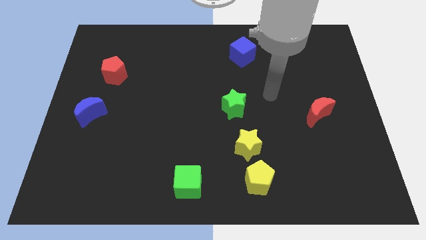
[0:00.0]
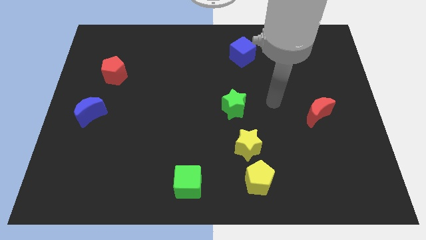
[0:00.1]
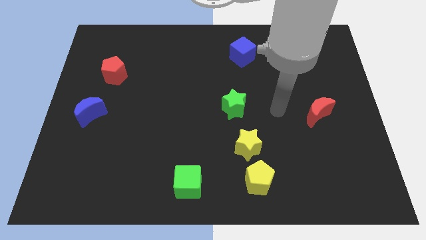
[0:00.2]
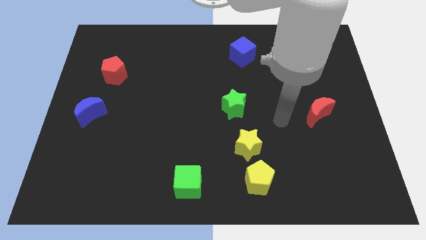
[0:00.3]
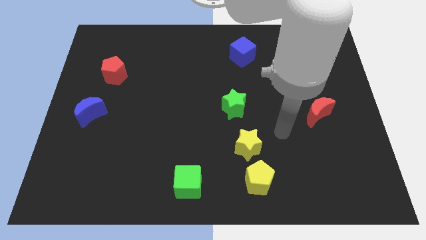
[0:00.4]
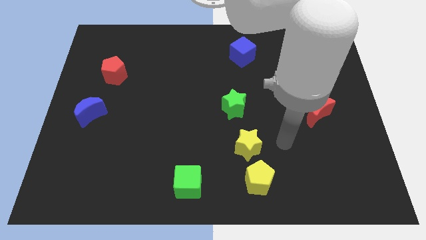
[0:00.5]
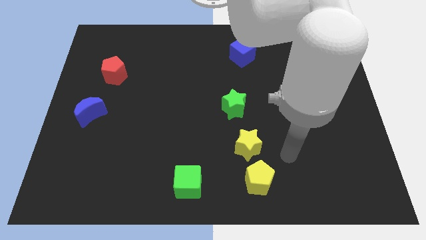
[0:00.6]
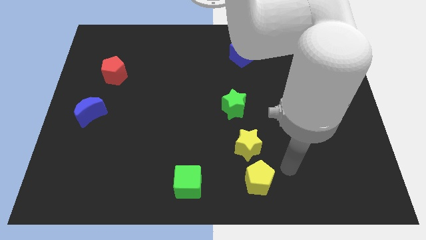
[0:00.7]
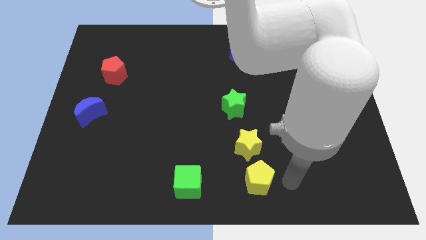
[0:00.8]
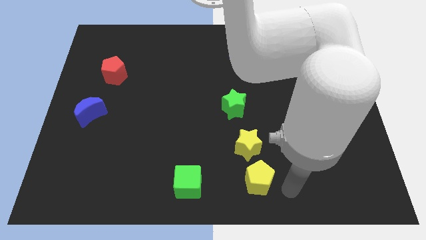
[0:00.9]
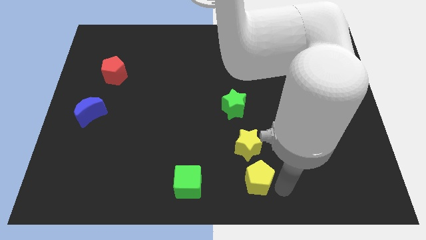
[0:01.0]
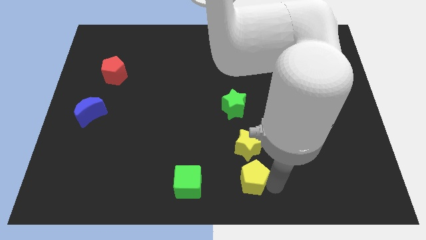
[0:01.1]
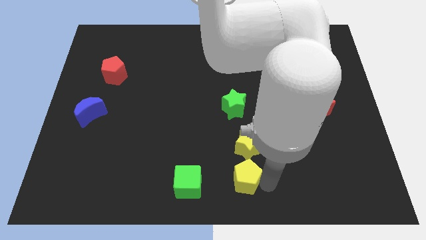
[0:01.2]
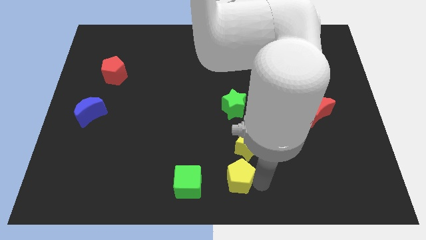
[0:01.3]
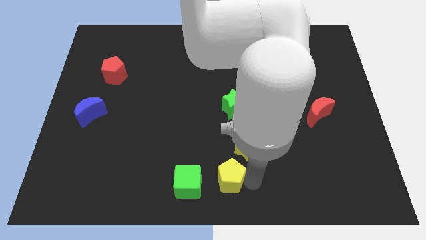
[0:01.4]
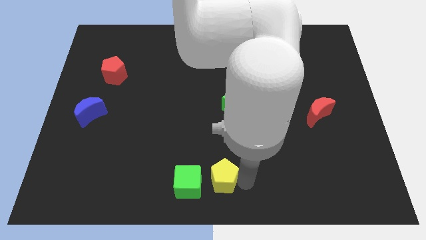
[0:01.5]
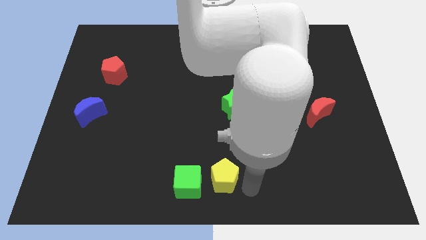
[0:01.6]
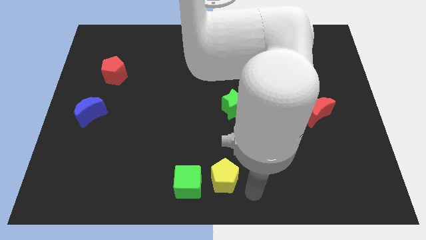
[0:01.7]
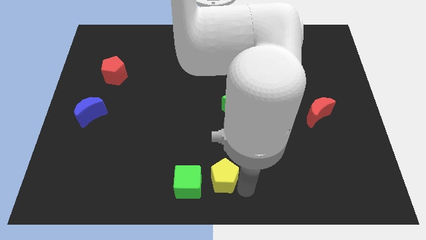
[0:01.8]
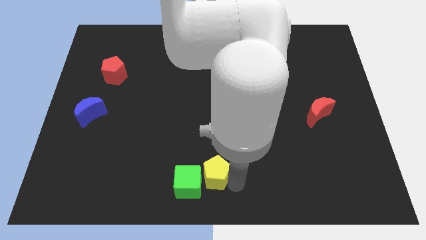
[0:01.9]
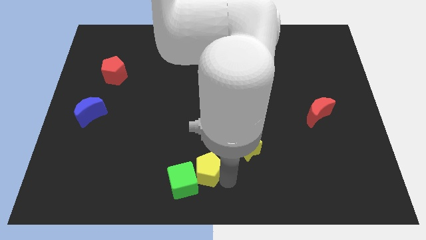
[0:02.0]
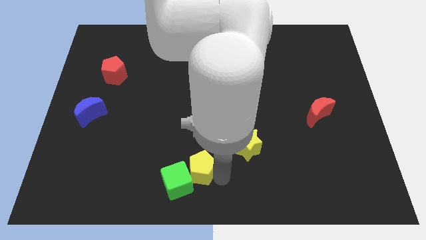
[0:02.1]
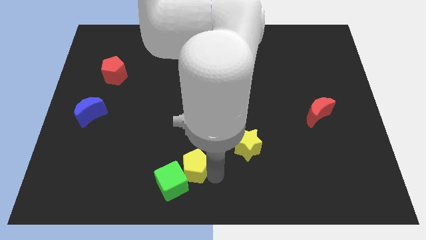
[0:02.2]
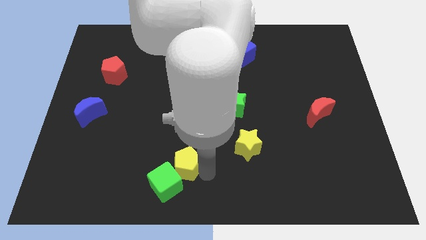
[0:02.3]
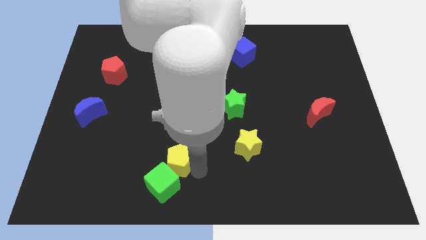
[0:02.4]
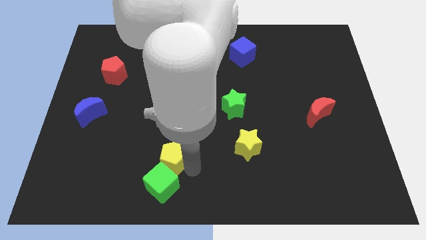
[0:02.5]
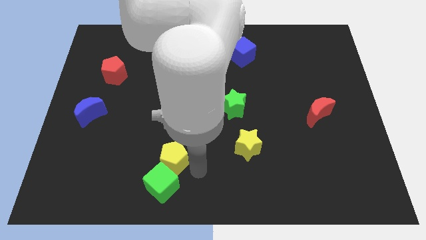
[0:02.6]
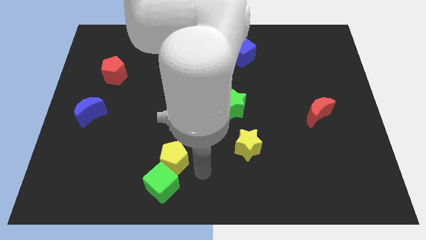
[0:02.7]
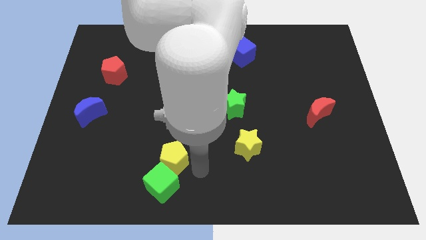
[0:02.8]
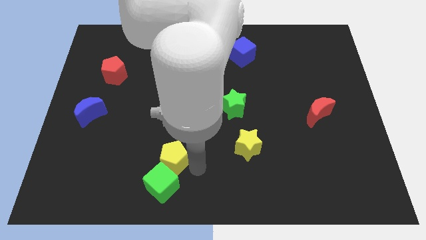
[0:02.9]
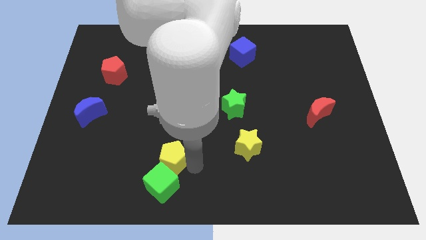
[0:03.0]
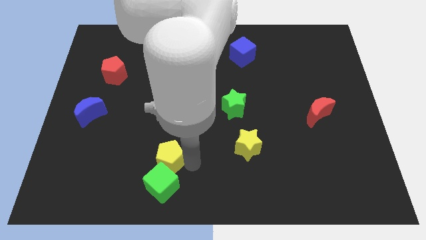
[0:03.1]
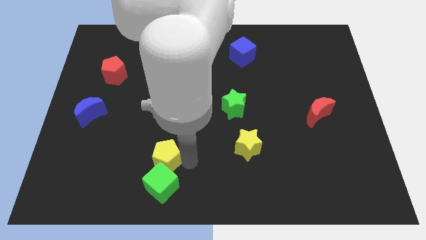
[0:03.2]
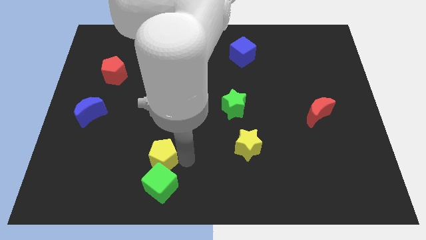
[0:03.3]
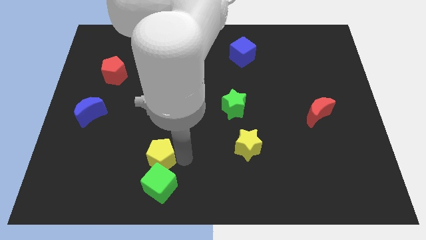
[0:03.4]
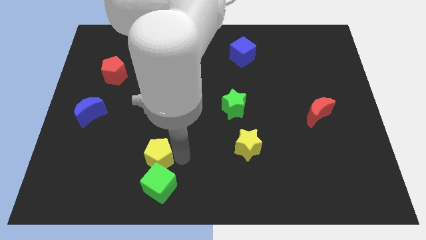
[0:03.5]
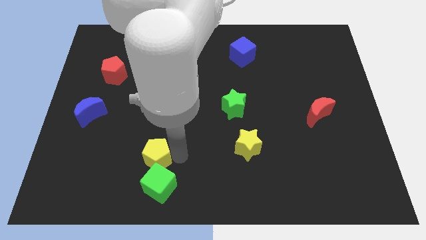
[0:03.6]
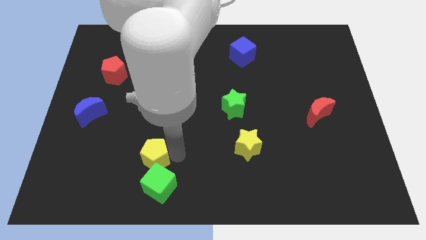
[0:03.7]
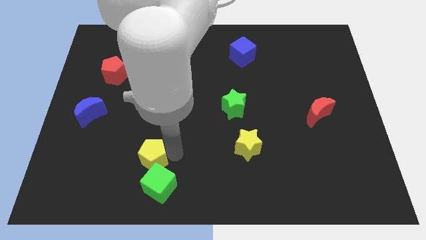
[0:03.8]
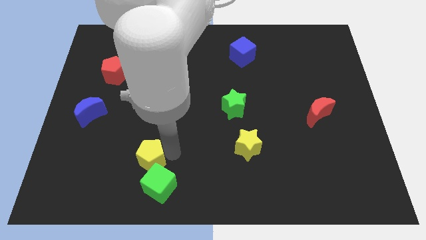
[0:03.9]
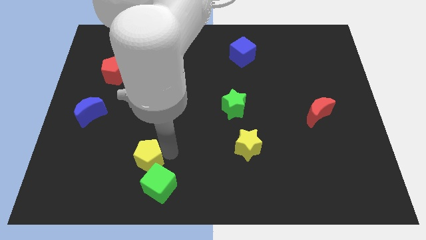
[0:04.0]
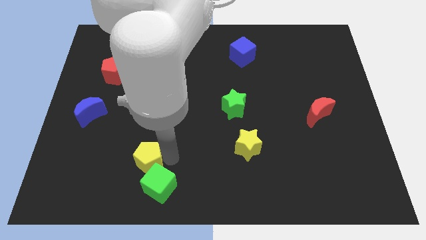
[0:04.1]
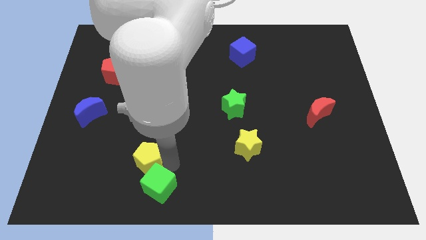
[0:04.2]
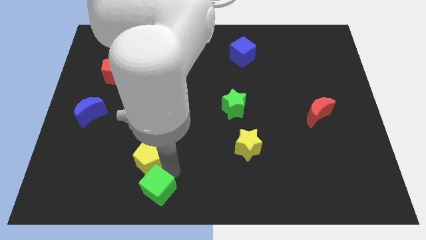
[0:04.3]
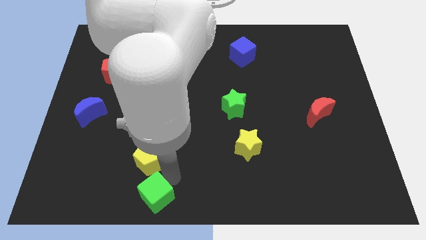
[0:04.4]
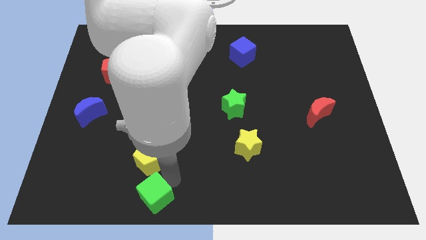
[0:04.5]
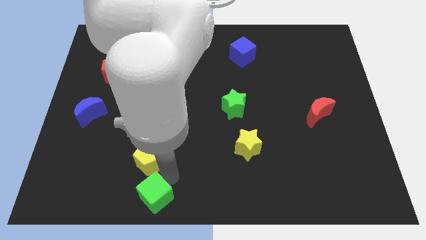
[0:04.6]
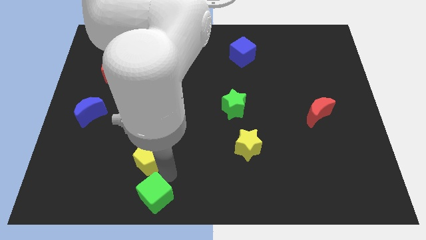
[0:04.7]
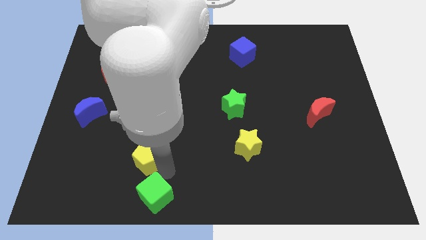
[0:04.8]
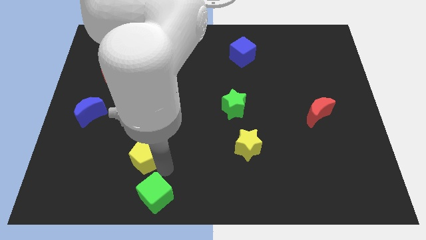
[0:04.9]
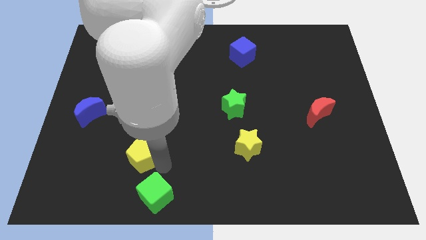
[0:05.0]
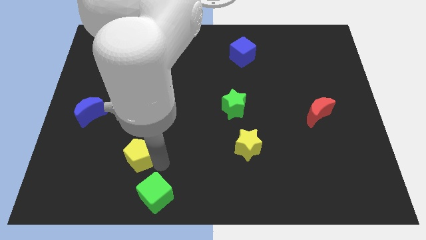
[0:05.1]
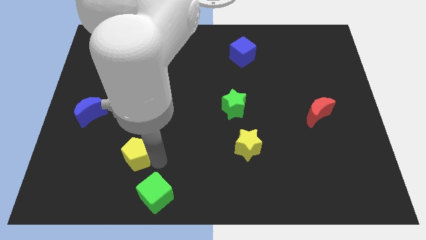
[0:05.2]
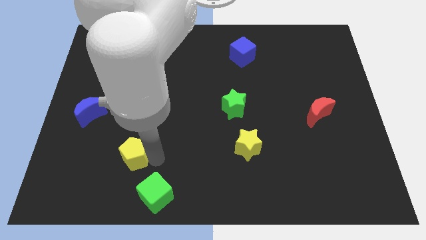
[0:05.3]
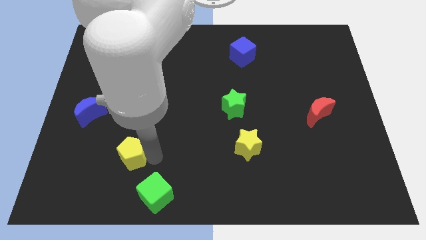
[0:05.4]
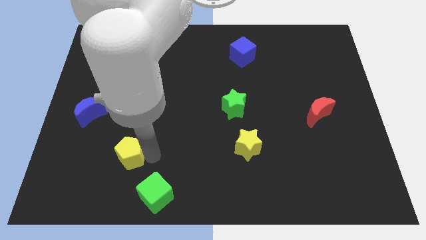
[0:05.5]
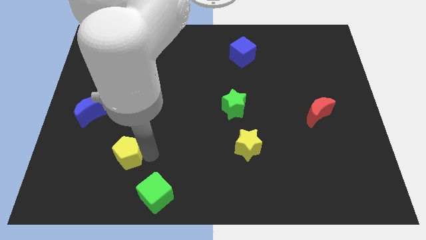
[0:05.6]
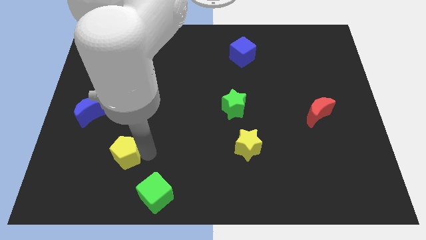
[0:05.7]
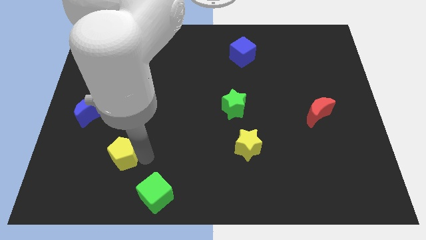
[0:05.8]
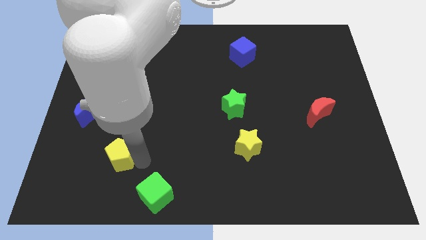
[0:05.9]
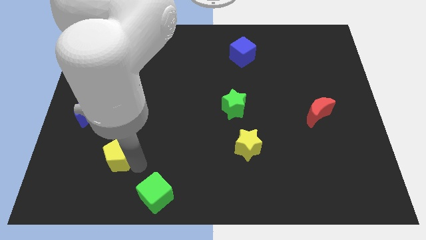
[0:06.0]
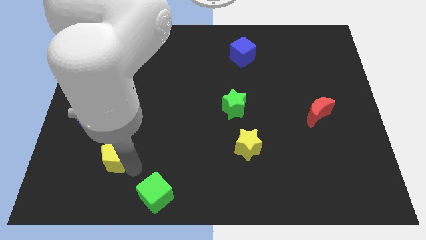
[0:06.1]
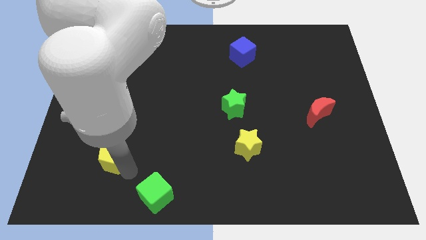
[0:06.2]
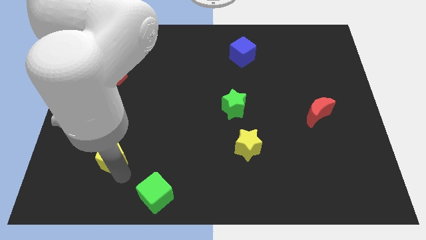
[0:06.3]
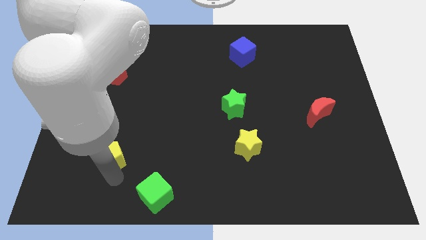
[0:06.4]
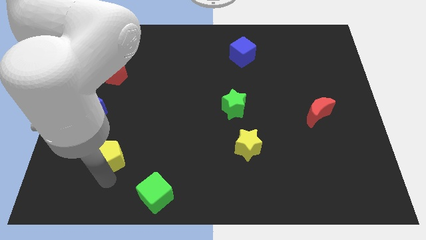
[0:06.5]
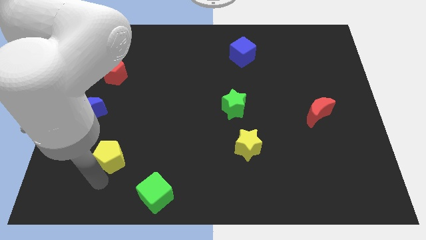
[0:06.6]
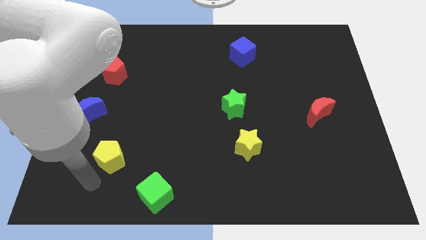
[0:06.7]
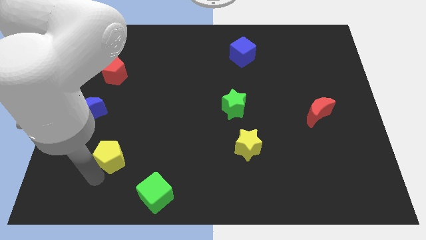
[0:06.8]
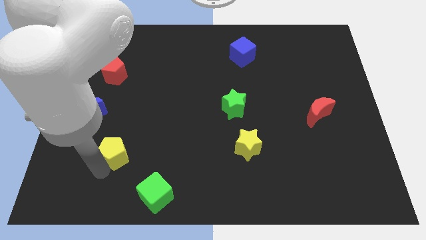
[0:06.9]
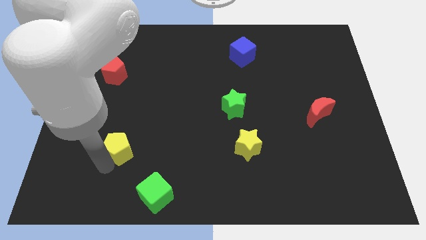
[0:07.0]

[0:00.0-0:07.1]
move the yellow pentagon to the bottom right side of the blue moon

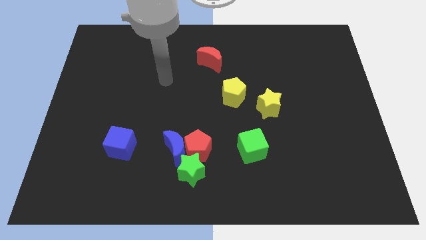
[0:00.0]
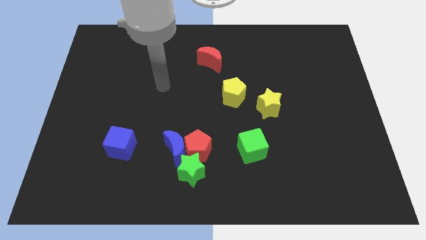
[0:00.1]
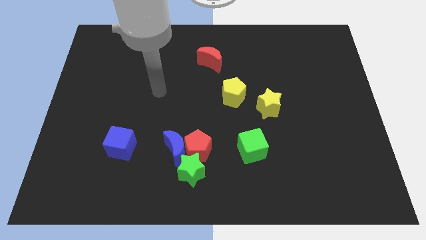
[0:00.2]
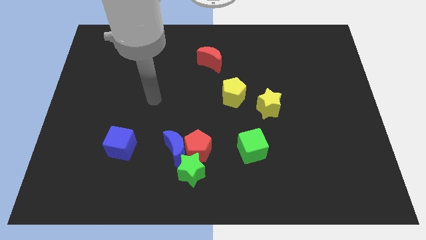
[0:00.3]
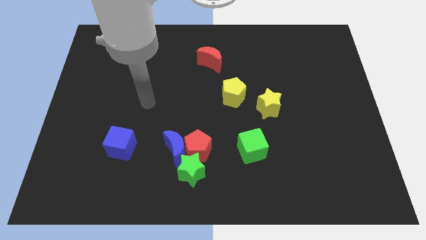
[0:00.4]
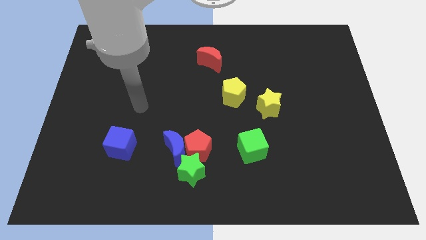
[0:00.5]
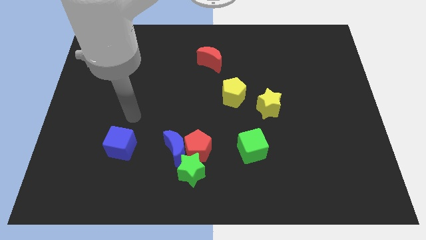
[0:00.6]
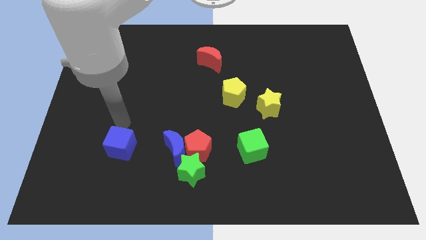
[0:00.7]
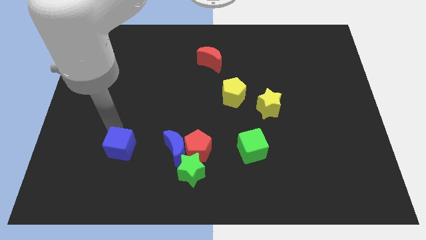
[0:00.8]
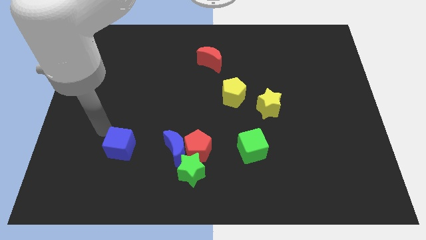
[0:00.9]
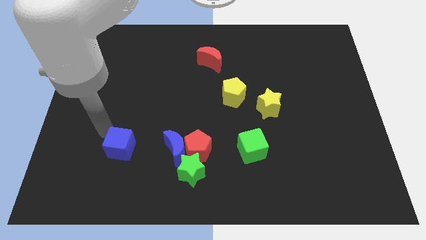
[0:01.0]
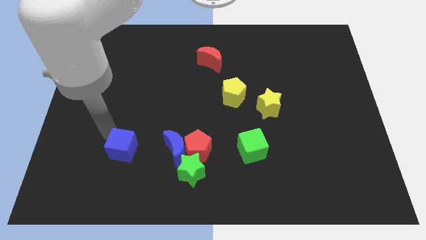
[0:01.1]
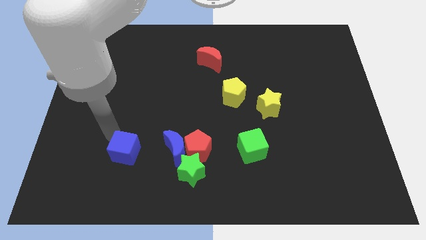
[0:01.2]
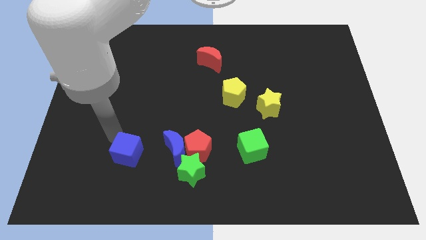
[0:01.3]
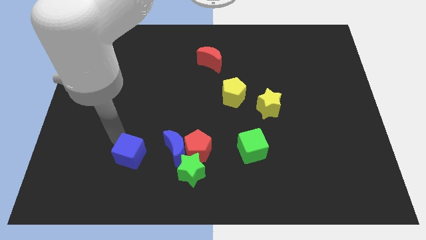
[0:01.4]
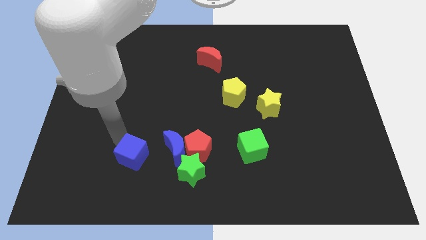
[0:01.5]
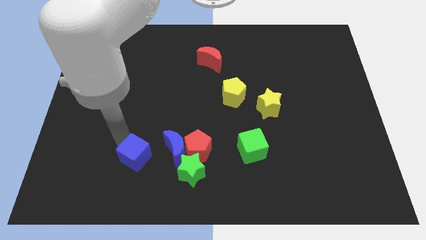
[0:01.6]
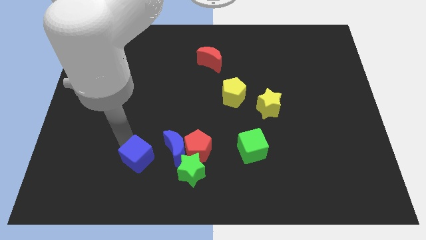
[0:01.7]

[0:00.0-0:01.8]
slide the blue cube to the bottom left of the blue moon
